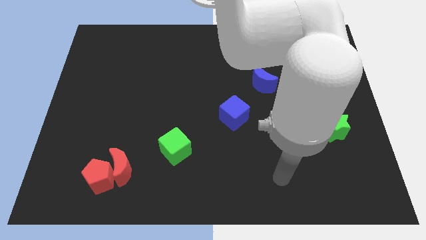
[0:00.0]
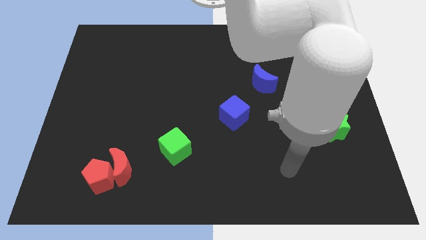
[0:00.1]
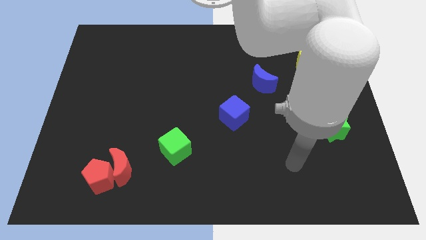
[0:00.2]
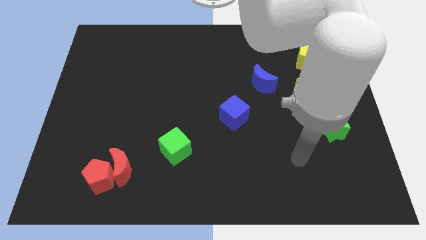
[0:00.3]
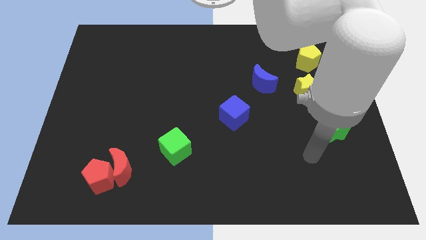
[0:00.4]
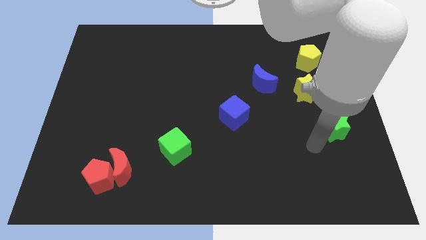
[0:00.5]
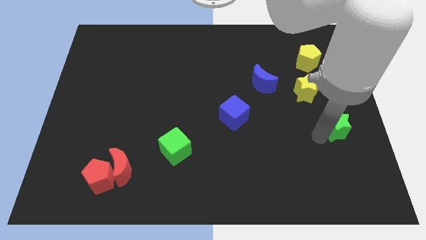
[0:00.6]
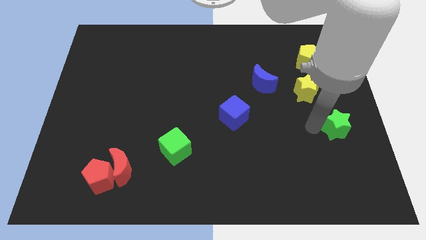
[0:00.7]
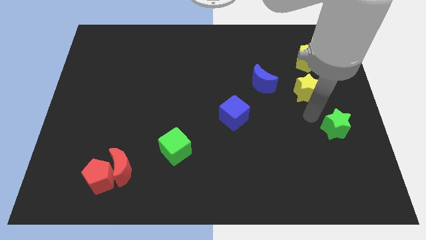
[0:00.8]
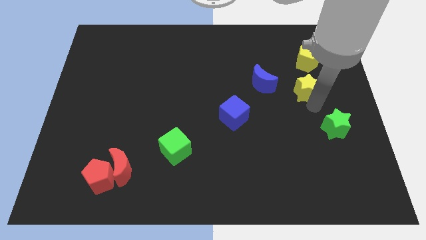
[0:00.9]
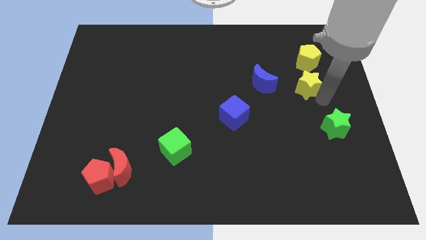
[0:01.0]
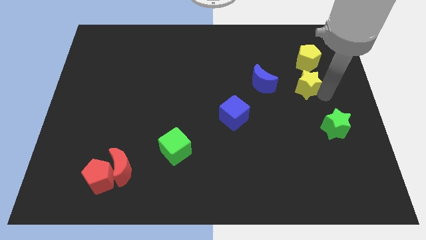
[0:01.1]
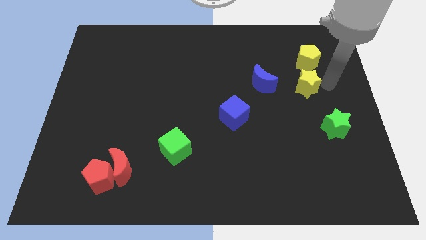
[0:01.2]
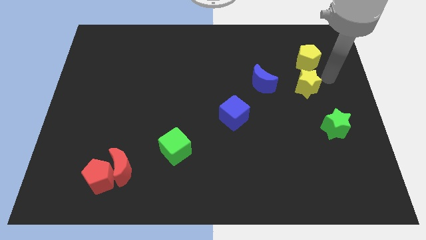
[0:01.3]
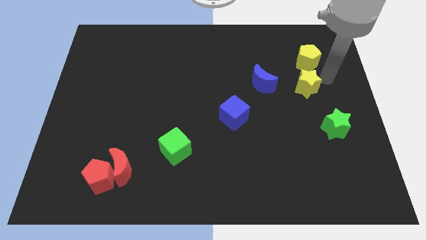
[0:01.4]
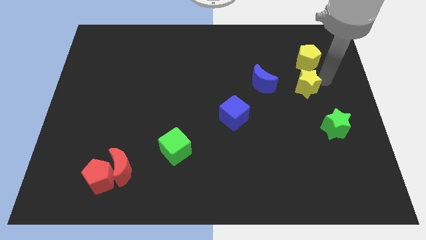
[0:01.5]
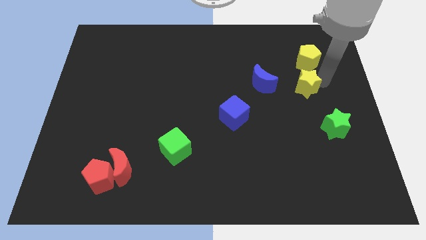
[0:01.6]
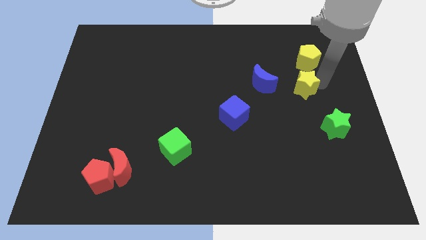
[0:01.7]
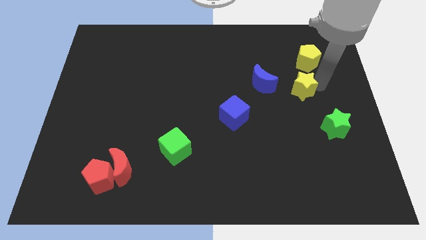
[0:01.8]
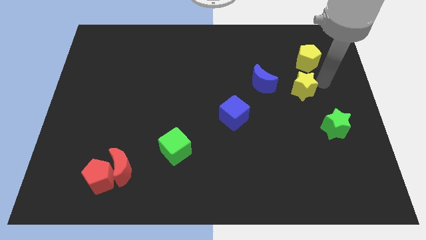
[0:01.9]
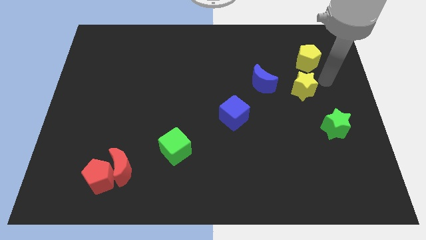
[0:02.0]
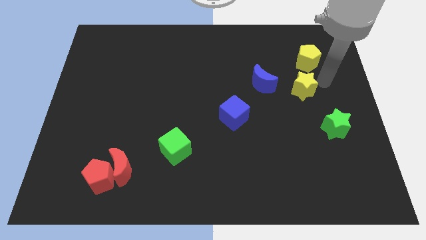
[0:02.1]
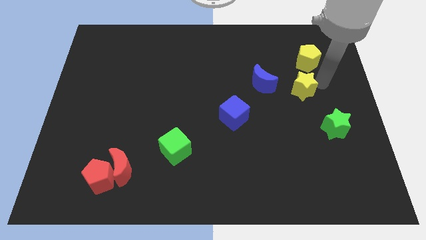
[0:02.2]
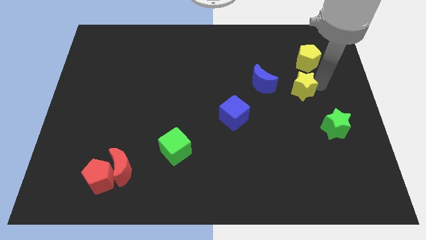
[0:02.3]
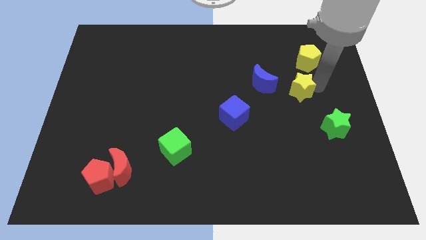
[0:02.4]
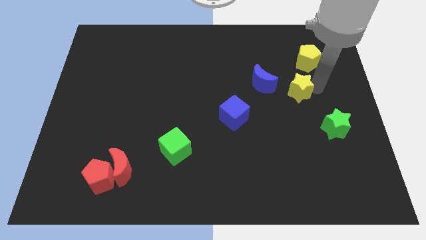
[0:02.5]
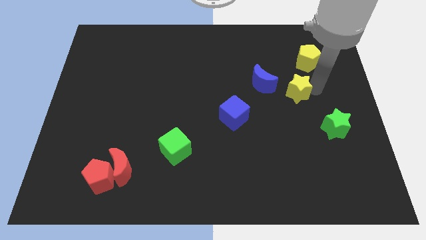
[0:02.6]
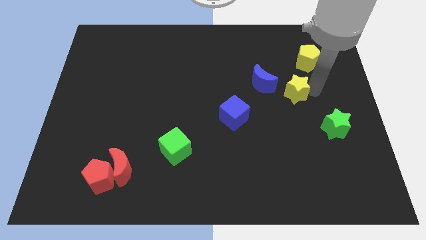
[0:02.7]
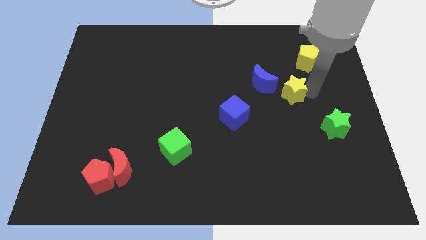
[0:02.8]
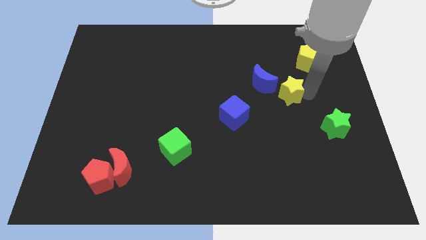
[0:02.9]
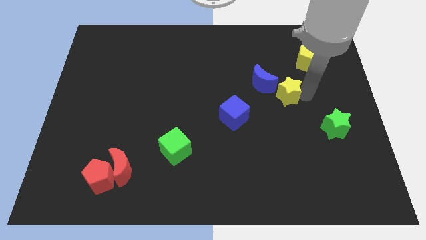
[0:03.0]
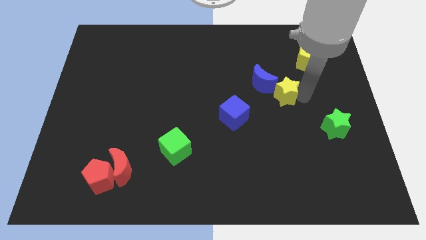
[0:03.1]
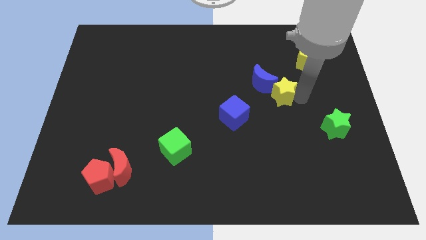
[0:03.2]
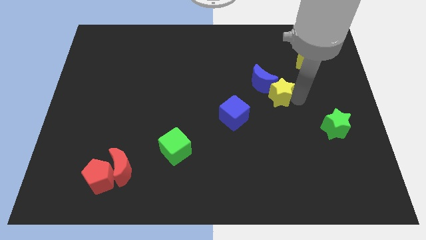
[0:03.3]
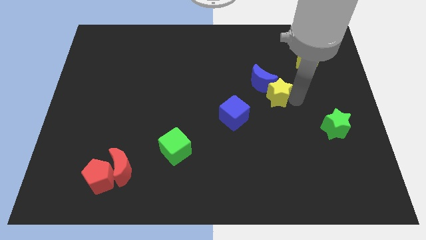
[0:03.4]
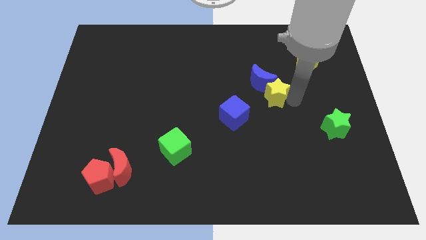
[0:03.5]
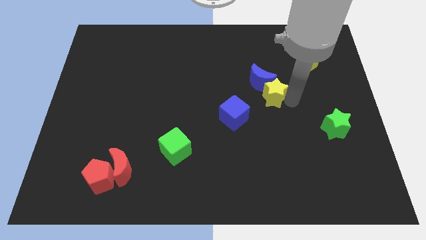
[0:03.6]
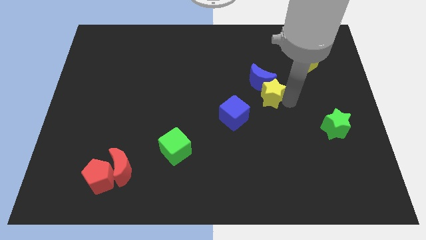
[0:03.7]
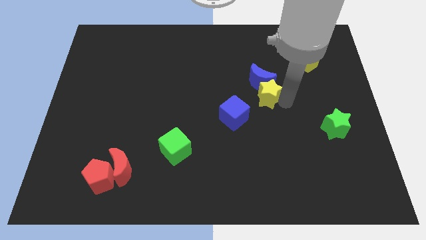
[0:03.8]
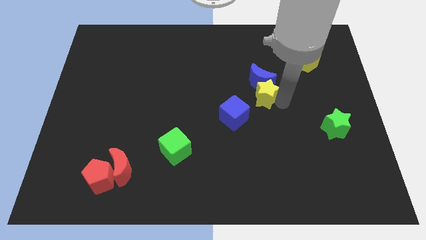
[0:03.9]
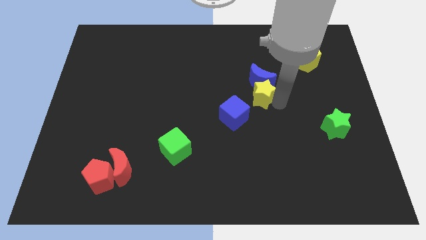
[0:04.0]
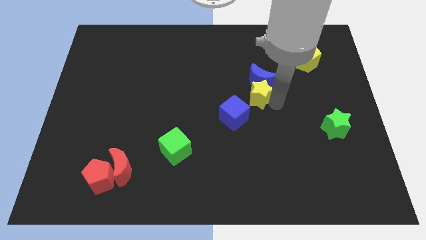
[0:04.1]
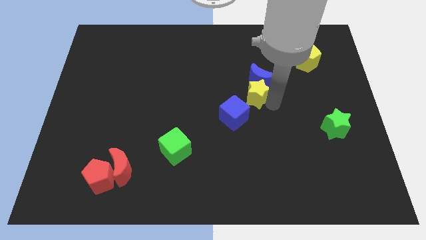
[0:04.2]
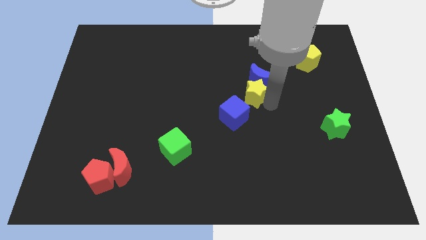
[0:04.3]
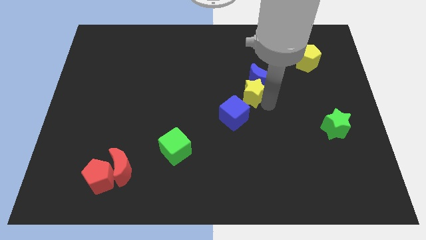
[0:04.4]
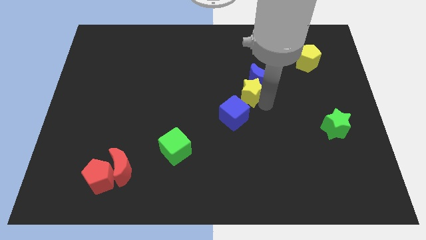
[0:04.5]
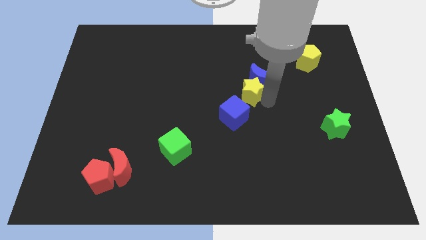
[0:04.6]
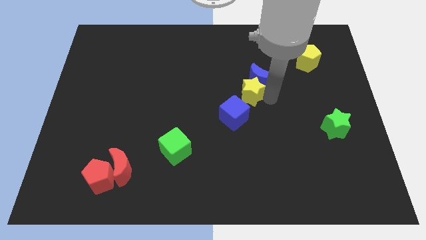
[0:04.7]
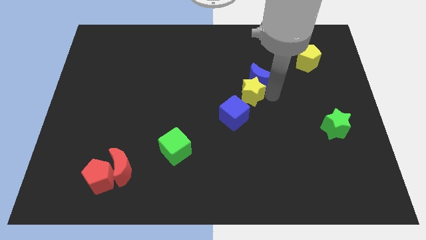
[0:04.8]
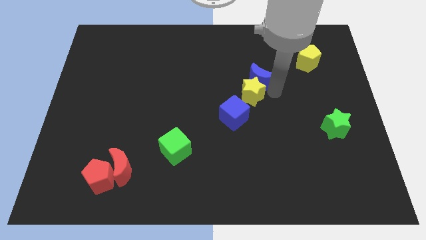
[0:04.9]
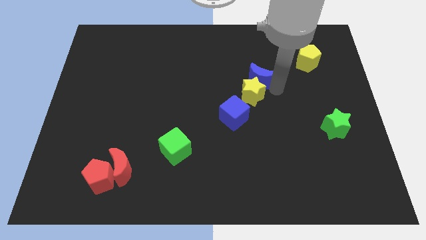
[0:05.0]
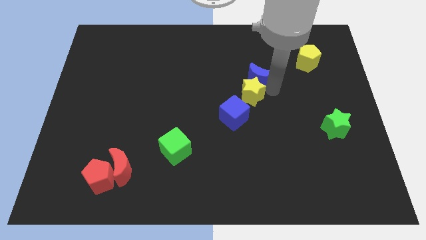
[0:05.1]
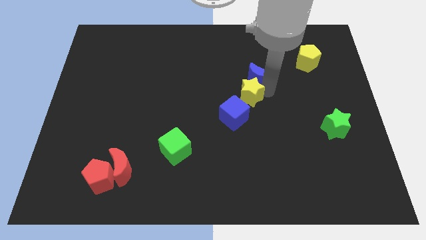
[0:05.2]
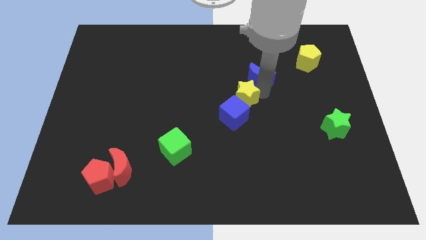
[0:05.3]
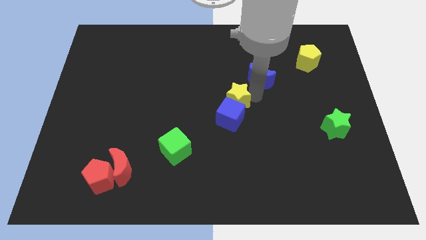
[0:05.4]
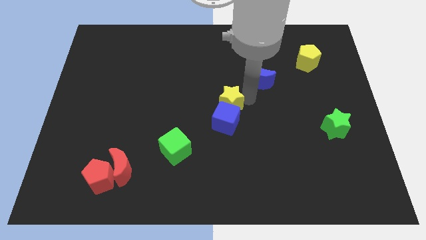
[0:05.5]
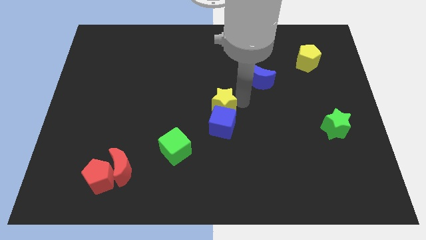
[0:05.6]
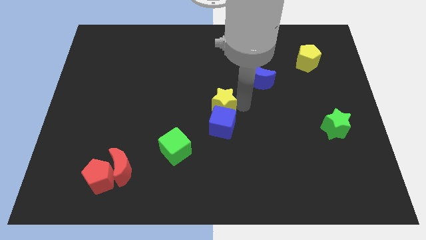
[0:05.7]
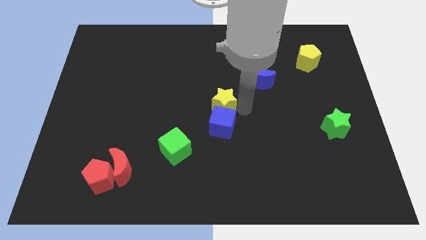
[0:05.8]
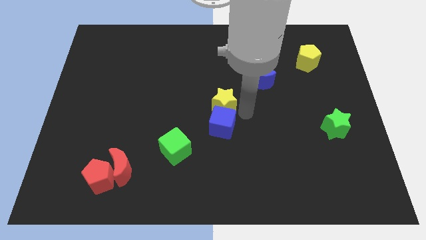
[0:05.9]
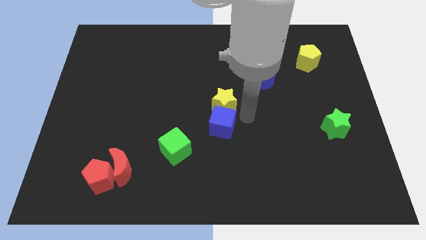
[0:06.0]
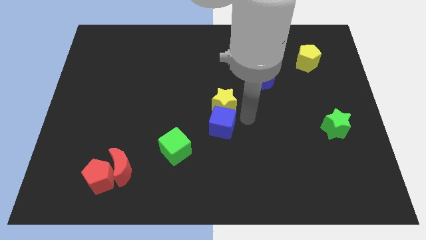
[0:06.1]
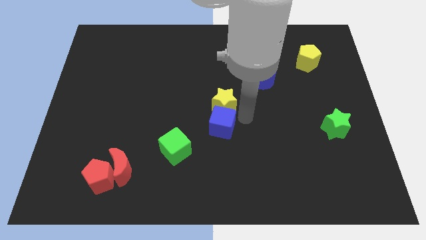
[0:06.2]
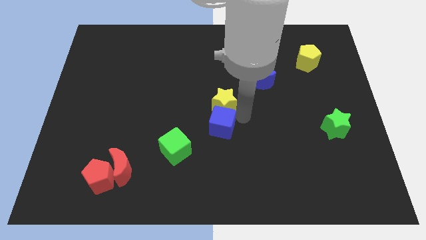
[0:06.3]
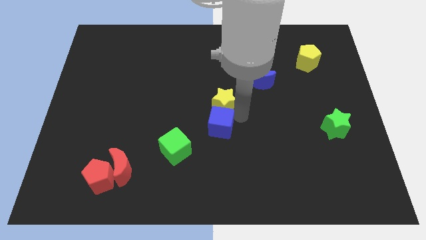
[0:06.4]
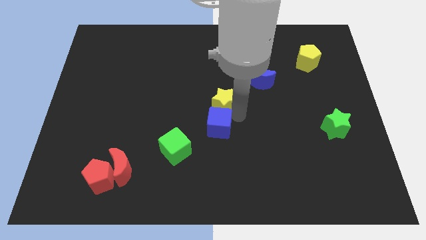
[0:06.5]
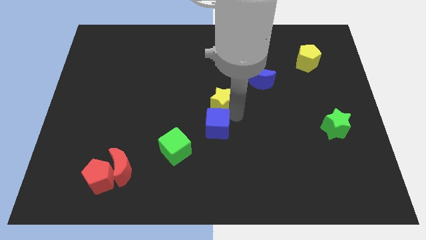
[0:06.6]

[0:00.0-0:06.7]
move the yellow star to the left

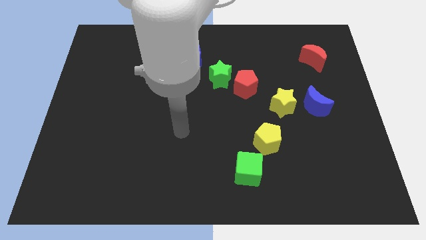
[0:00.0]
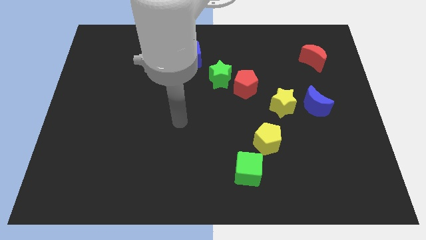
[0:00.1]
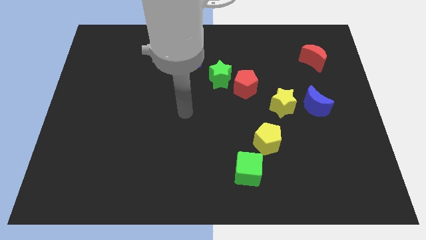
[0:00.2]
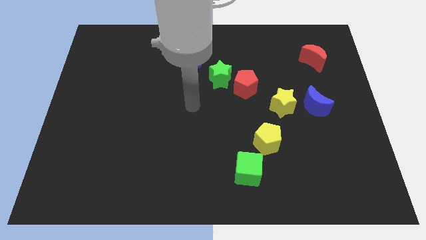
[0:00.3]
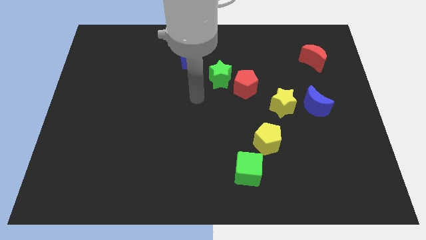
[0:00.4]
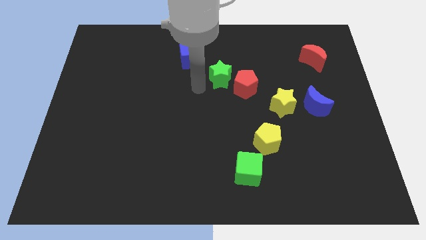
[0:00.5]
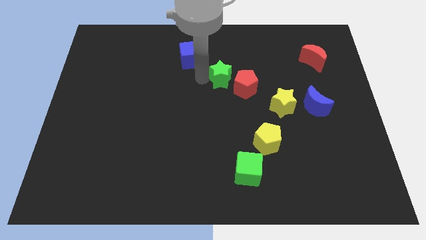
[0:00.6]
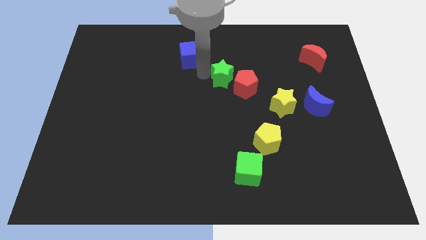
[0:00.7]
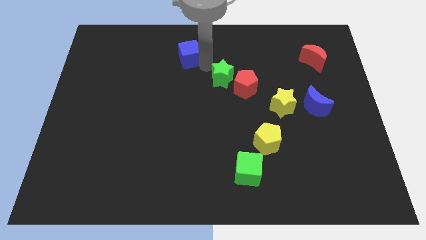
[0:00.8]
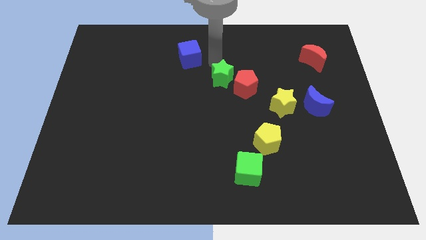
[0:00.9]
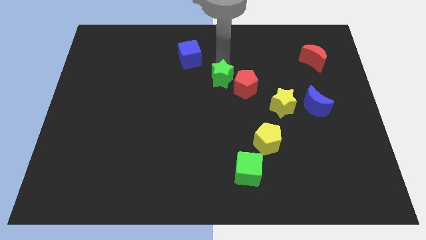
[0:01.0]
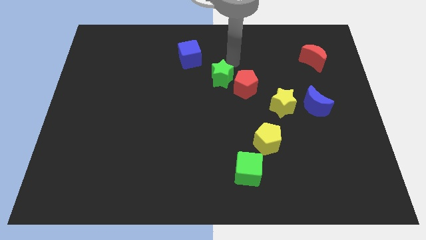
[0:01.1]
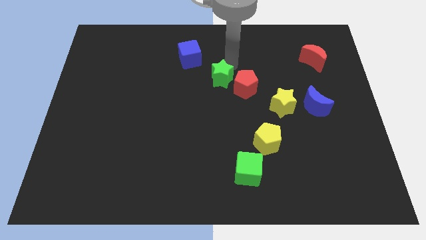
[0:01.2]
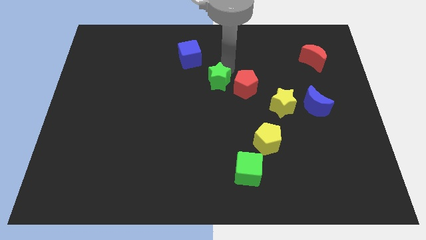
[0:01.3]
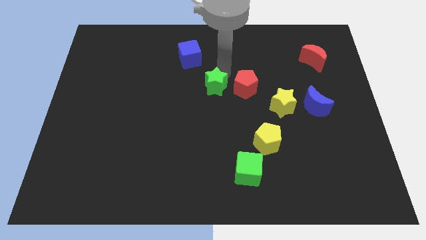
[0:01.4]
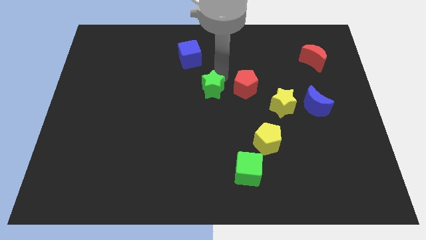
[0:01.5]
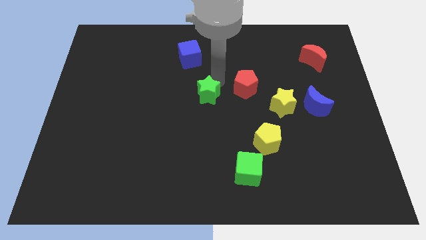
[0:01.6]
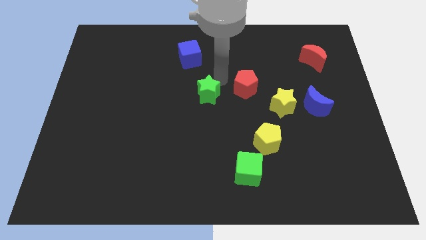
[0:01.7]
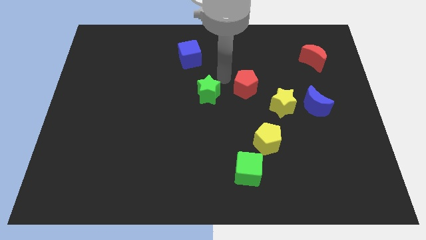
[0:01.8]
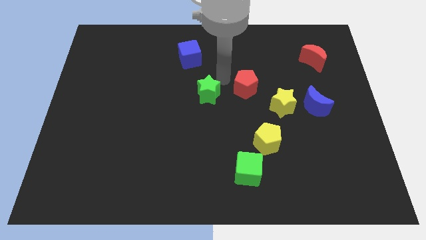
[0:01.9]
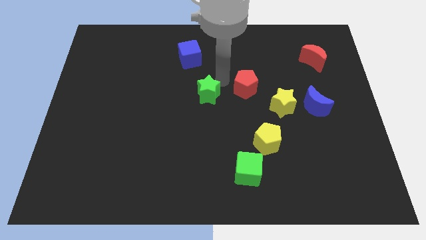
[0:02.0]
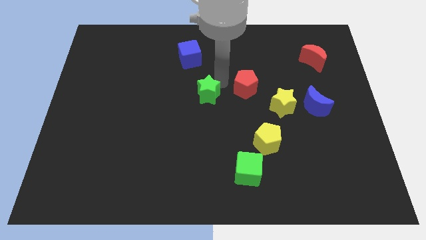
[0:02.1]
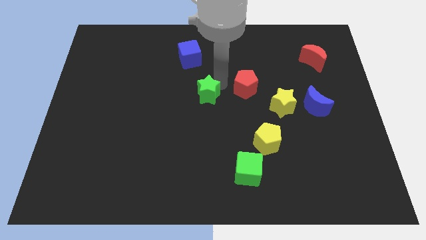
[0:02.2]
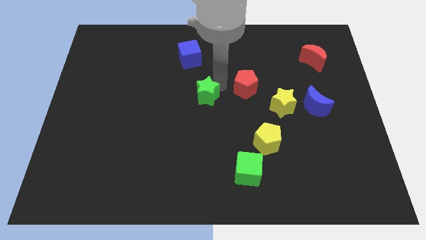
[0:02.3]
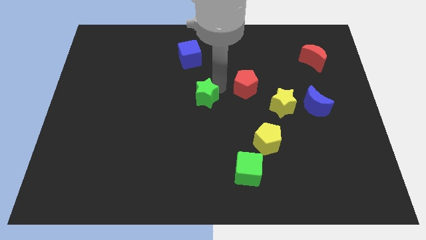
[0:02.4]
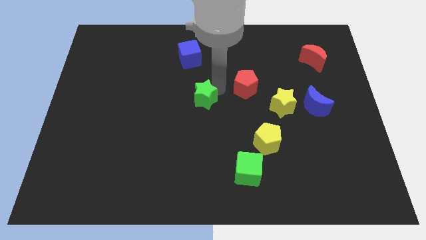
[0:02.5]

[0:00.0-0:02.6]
slide the green star diagonally downwards and left a little bit
